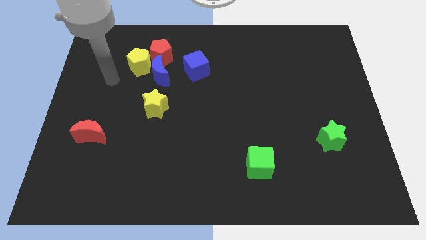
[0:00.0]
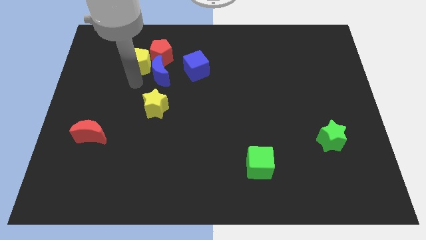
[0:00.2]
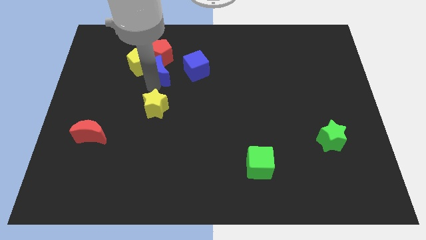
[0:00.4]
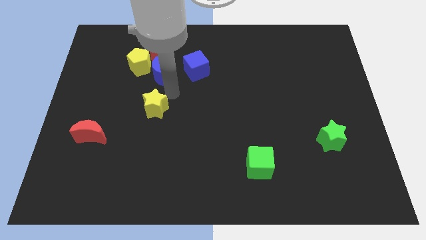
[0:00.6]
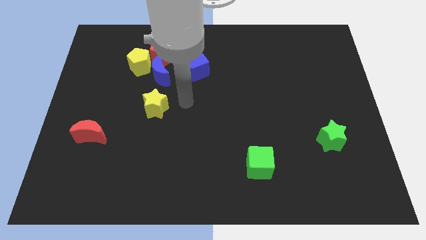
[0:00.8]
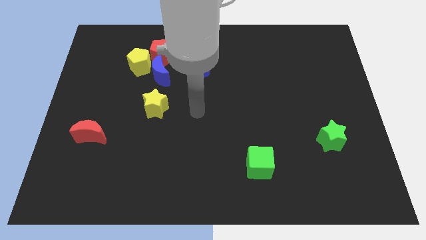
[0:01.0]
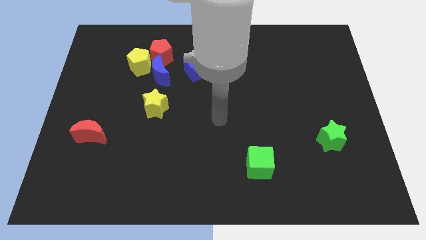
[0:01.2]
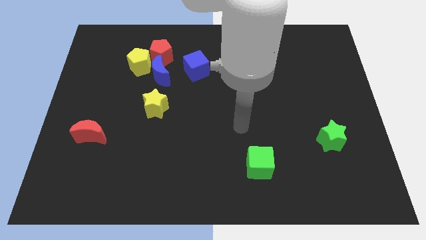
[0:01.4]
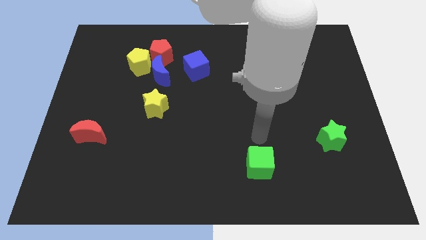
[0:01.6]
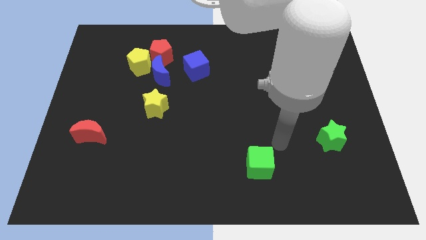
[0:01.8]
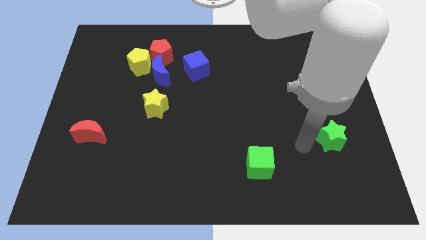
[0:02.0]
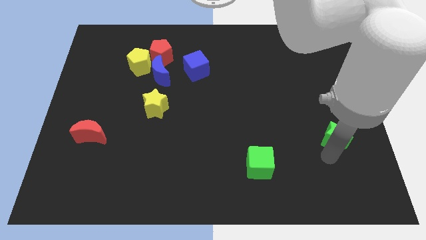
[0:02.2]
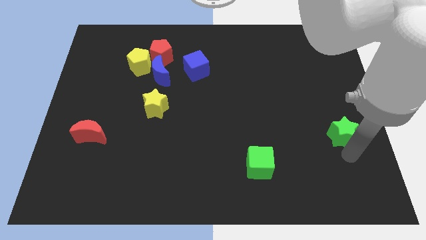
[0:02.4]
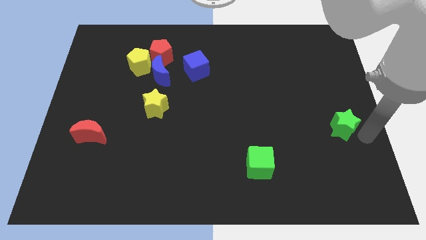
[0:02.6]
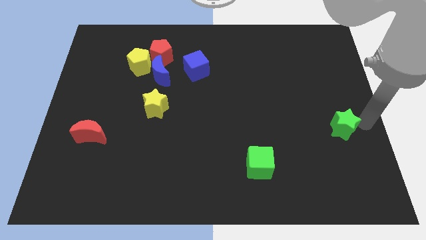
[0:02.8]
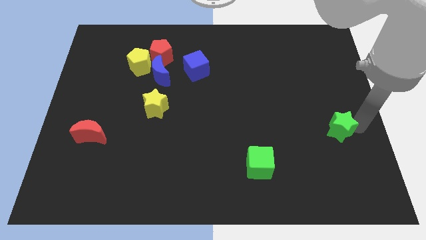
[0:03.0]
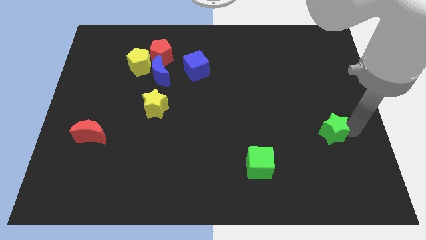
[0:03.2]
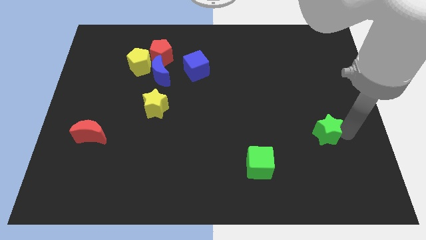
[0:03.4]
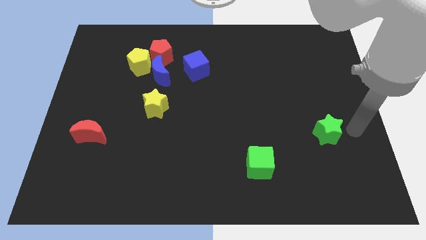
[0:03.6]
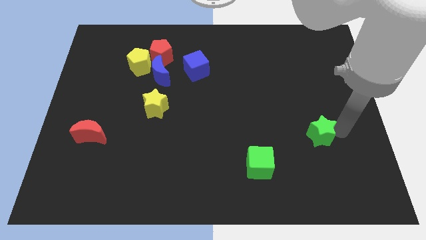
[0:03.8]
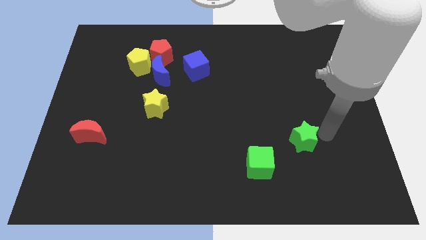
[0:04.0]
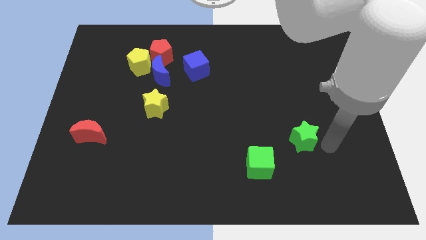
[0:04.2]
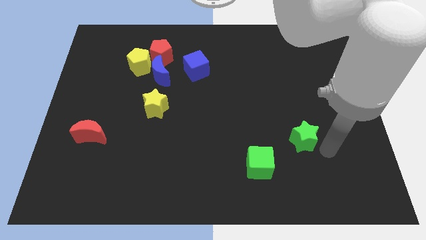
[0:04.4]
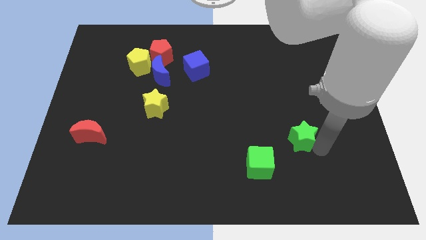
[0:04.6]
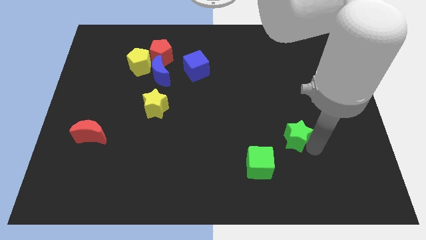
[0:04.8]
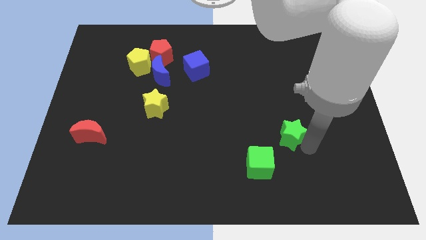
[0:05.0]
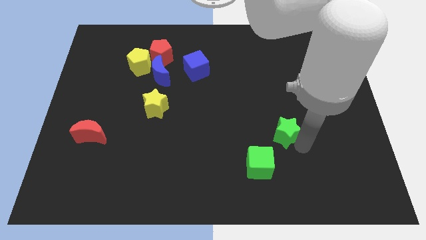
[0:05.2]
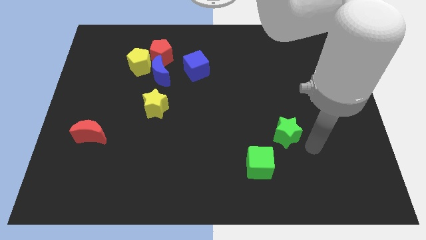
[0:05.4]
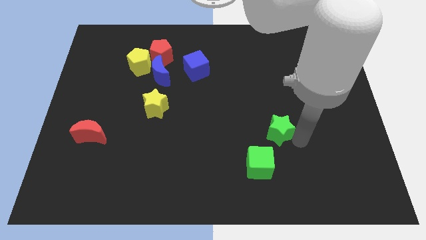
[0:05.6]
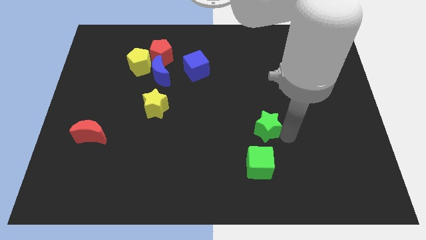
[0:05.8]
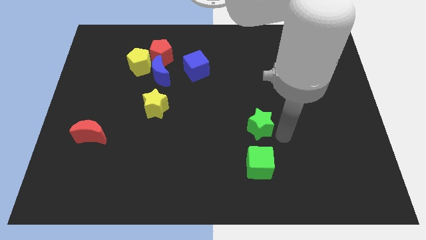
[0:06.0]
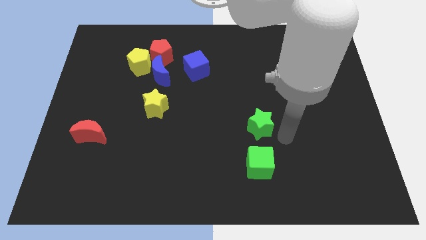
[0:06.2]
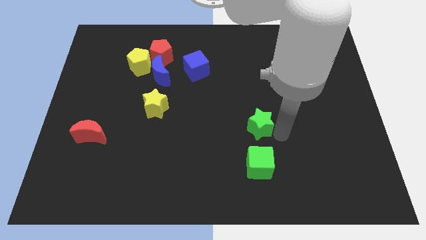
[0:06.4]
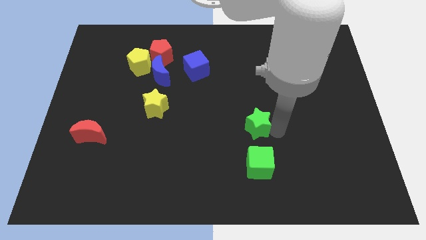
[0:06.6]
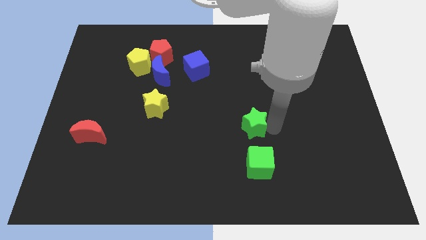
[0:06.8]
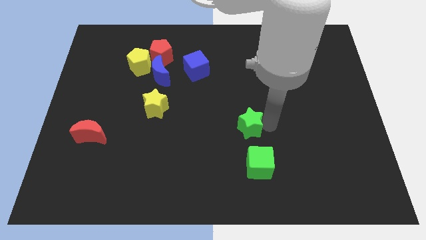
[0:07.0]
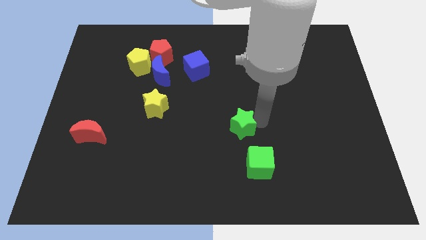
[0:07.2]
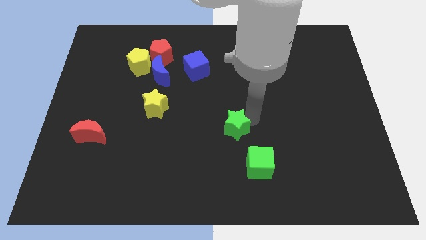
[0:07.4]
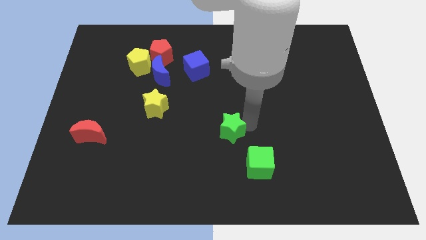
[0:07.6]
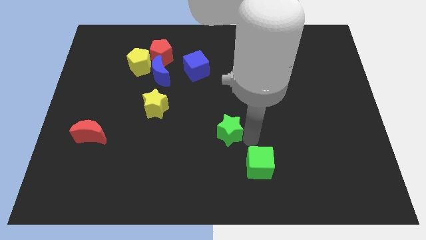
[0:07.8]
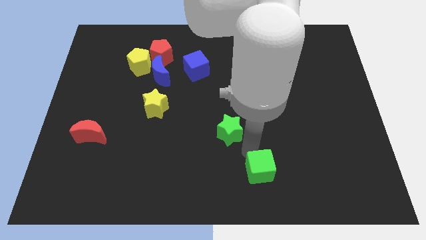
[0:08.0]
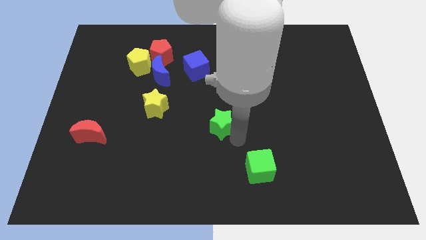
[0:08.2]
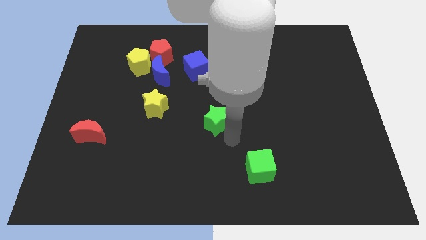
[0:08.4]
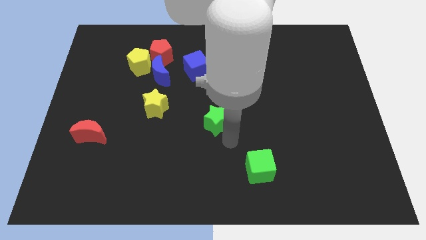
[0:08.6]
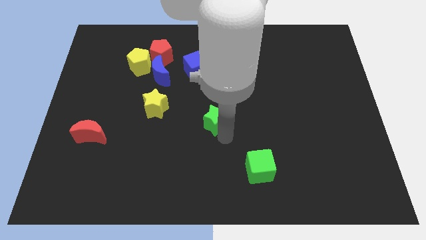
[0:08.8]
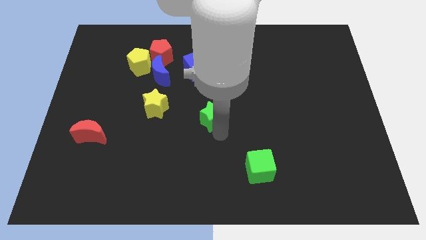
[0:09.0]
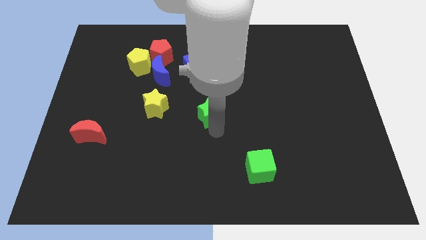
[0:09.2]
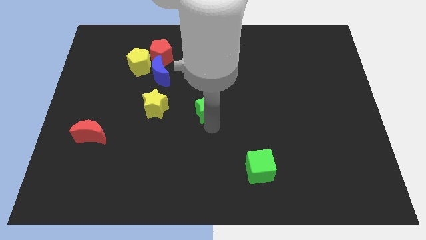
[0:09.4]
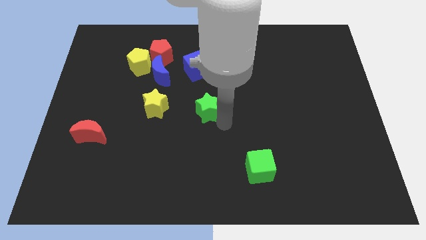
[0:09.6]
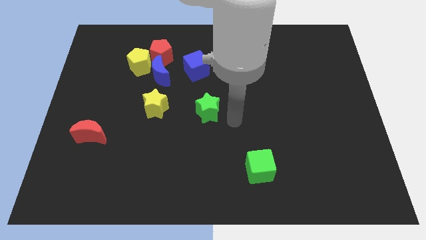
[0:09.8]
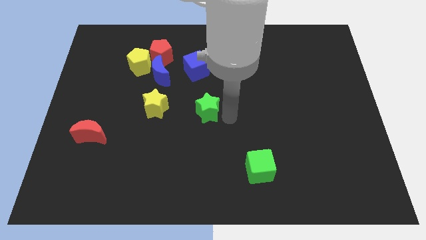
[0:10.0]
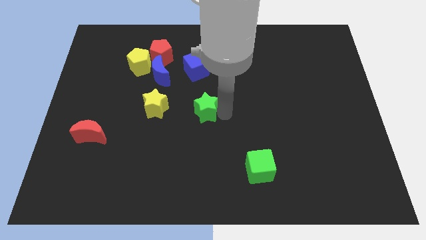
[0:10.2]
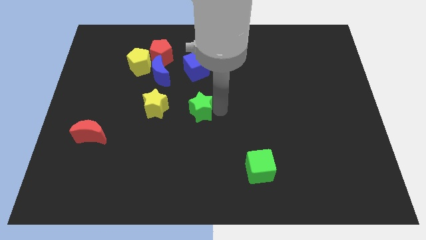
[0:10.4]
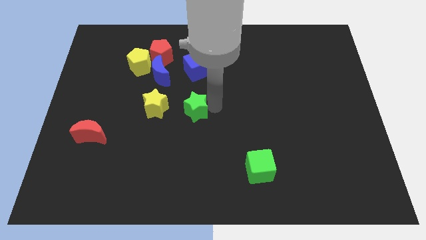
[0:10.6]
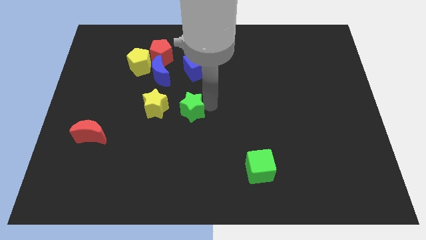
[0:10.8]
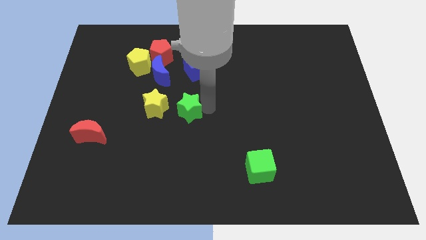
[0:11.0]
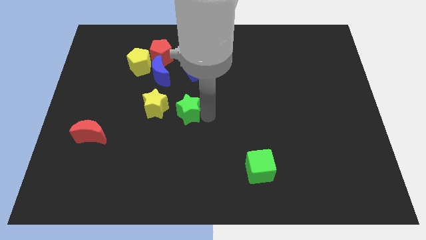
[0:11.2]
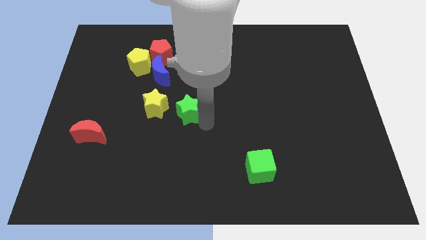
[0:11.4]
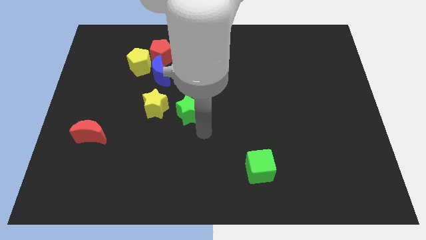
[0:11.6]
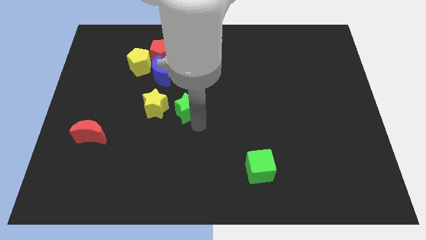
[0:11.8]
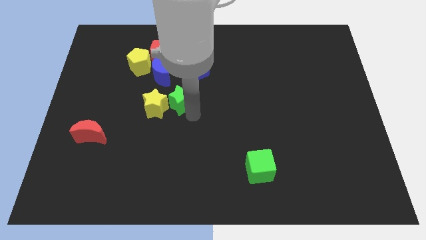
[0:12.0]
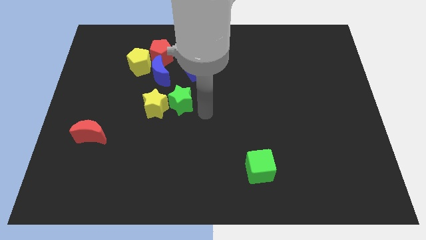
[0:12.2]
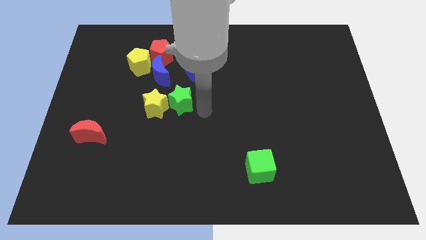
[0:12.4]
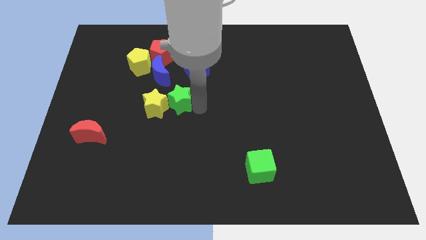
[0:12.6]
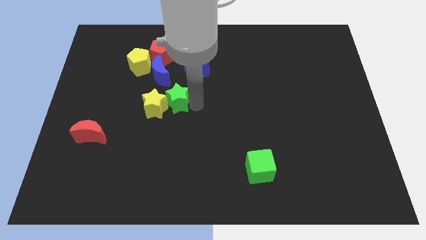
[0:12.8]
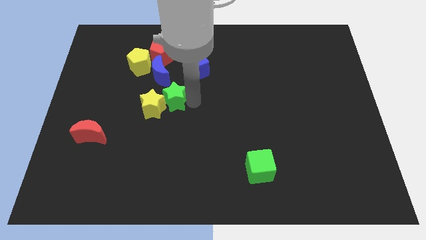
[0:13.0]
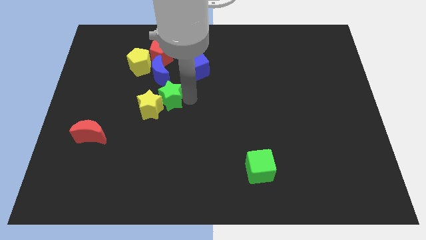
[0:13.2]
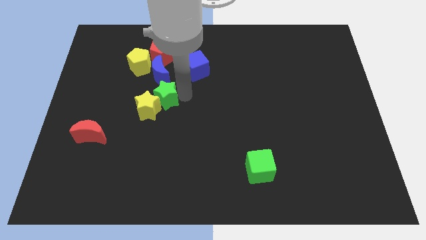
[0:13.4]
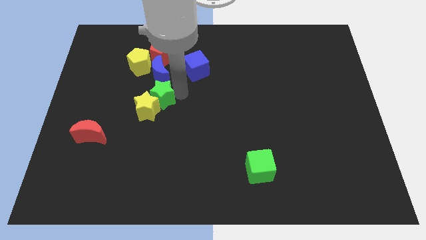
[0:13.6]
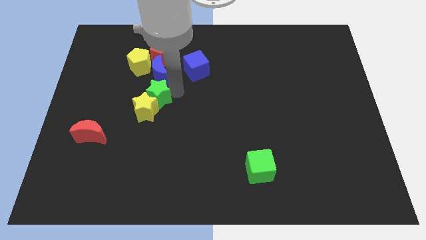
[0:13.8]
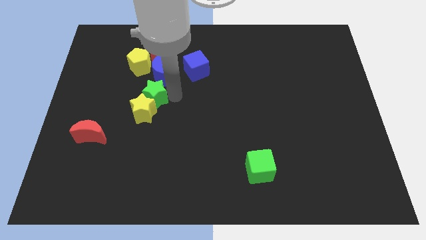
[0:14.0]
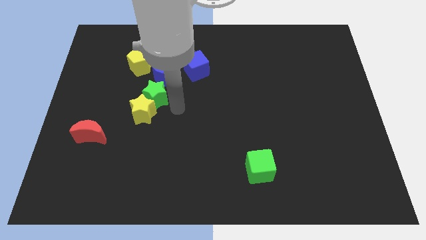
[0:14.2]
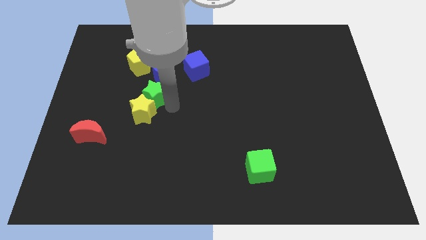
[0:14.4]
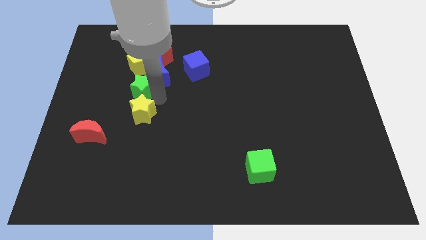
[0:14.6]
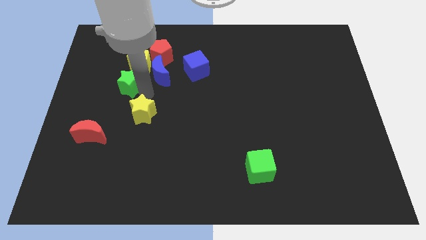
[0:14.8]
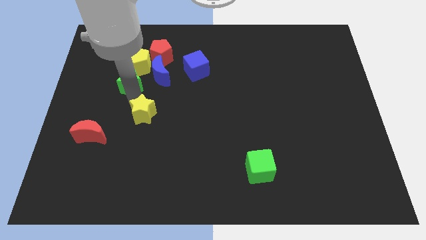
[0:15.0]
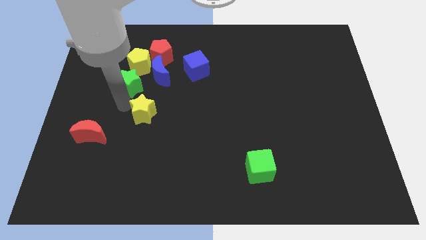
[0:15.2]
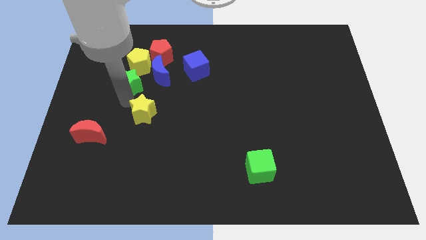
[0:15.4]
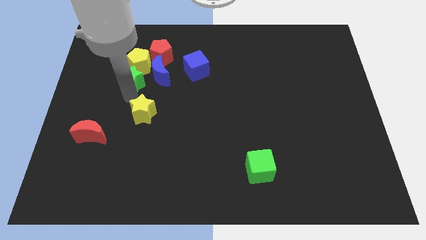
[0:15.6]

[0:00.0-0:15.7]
move the green star towards the yellow pentagon
